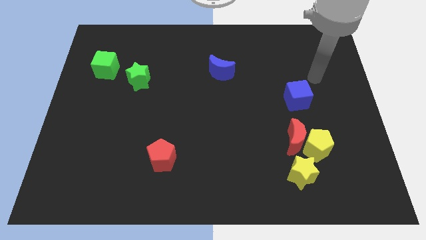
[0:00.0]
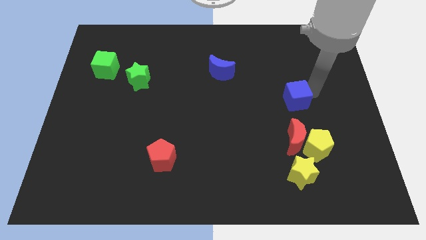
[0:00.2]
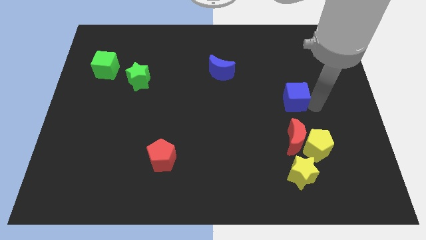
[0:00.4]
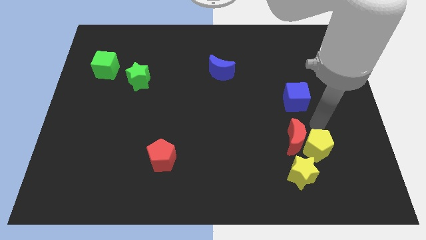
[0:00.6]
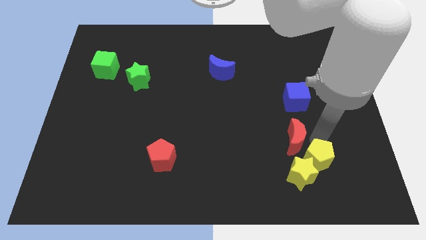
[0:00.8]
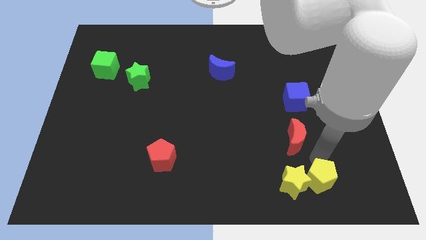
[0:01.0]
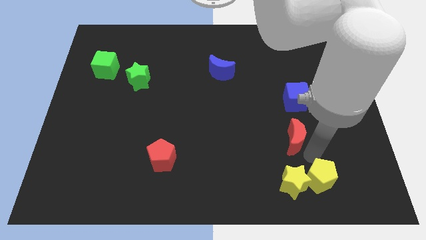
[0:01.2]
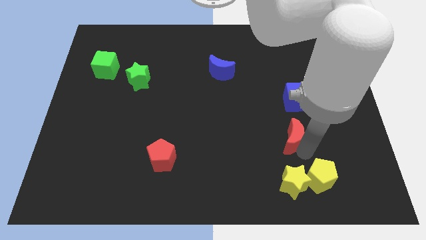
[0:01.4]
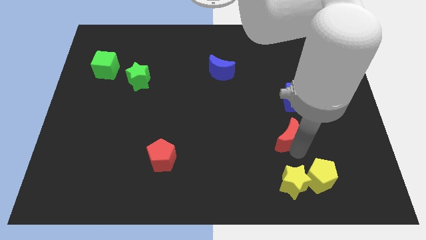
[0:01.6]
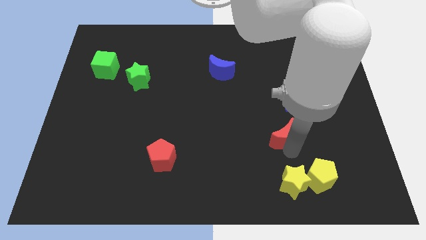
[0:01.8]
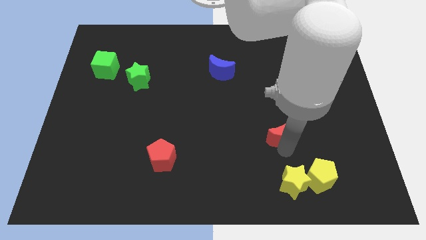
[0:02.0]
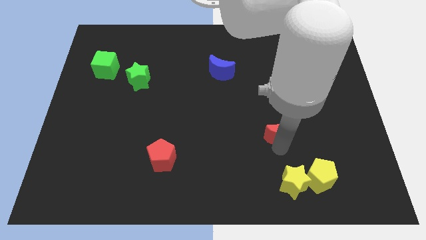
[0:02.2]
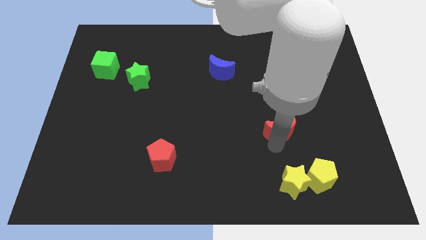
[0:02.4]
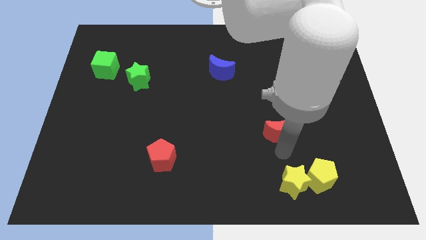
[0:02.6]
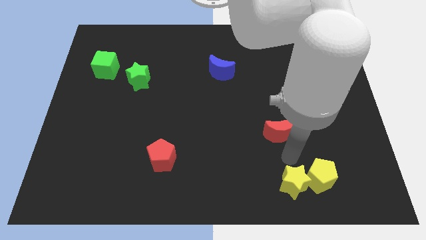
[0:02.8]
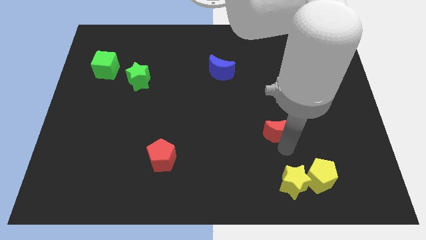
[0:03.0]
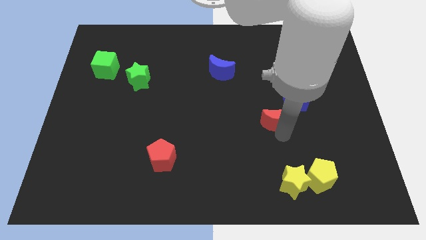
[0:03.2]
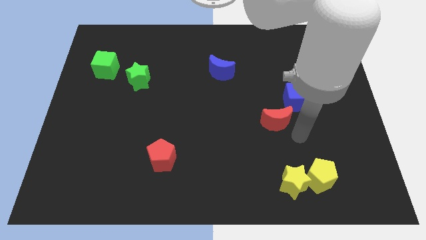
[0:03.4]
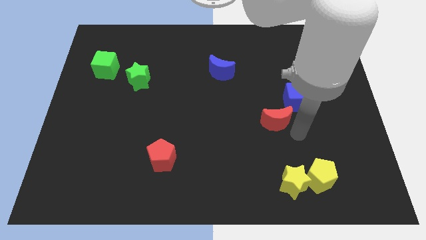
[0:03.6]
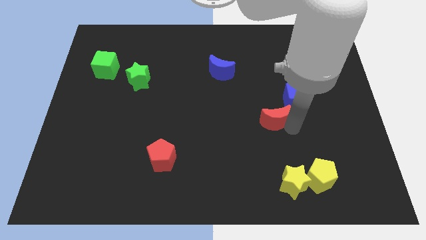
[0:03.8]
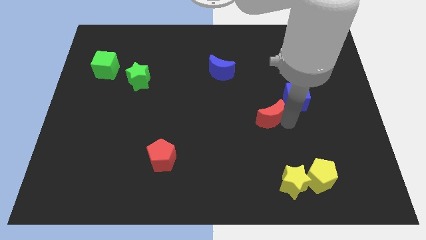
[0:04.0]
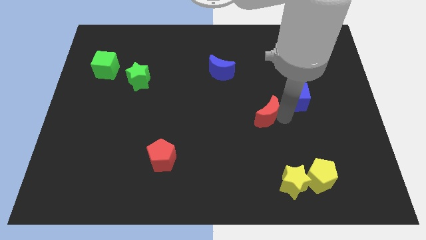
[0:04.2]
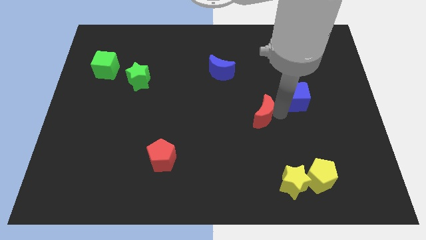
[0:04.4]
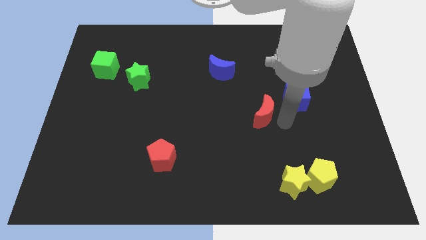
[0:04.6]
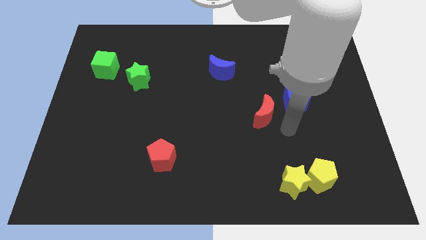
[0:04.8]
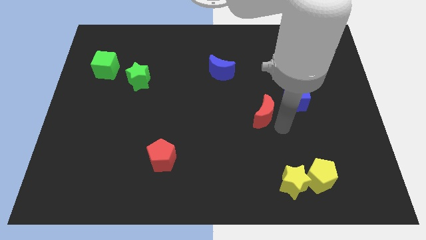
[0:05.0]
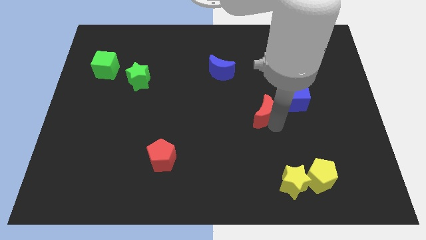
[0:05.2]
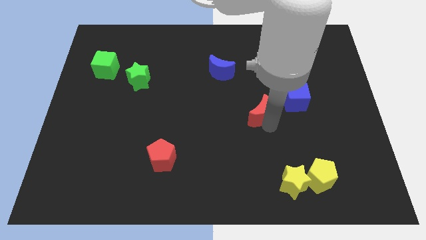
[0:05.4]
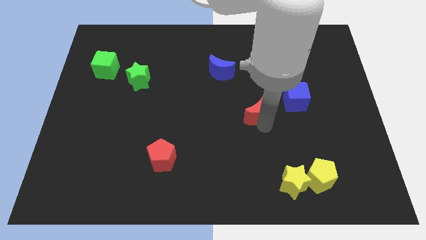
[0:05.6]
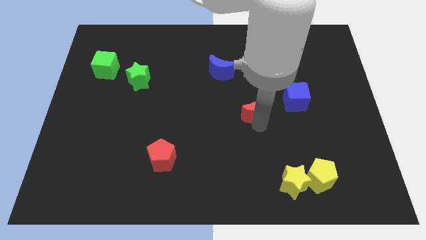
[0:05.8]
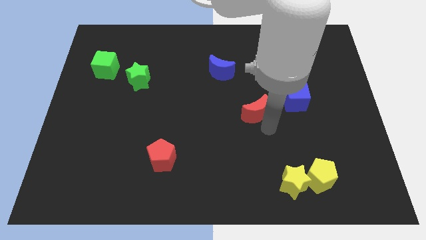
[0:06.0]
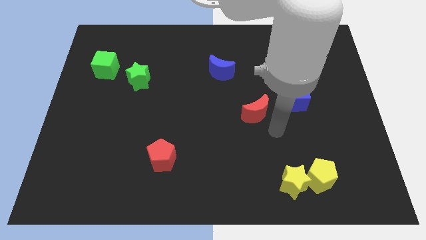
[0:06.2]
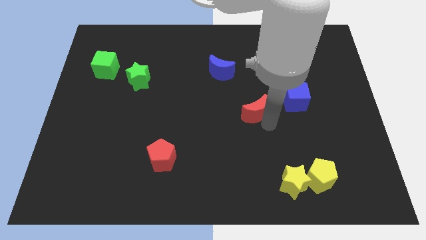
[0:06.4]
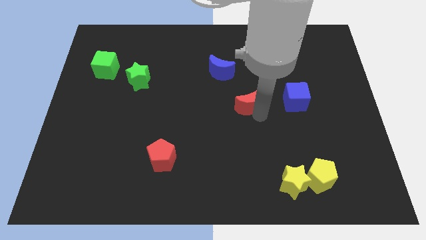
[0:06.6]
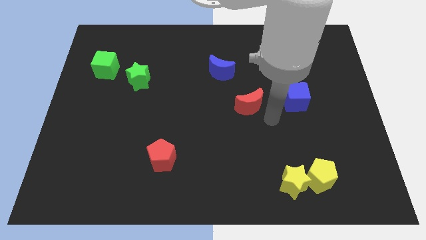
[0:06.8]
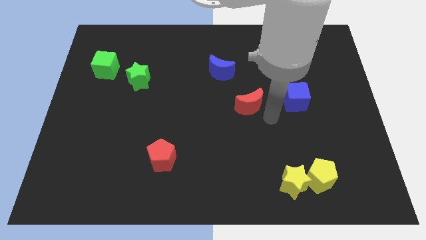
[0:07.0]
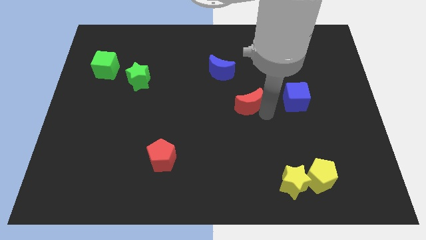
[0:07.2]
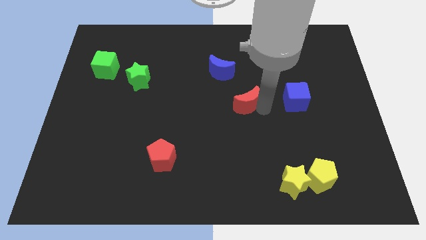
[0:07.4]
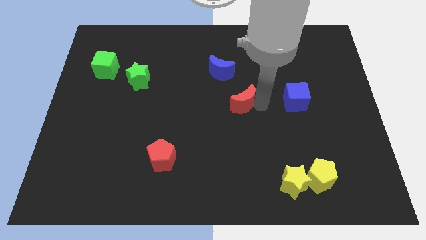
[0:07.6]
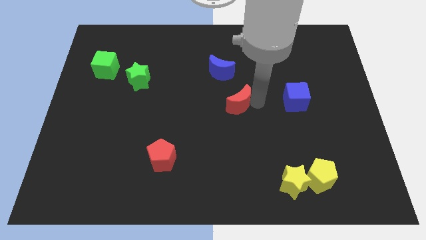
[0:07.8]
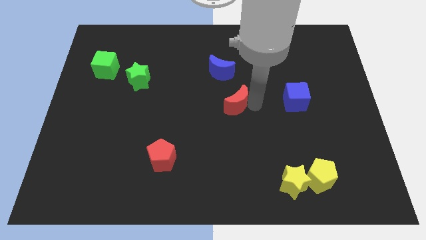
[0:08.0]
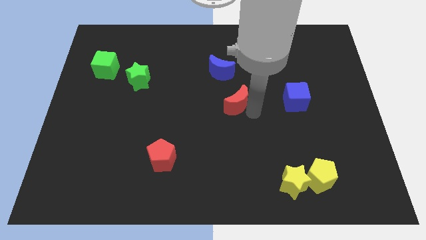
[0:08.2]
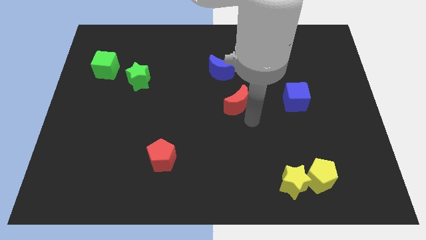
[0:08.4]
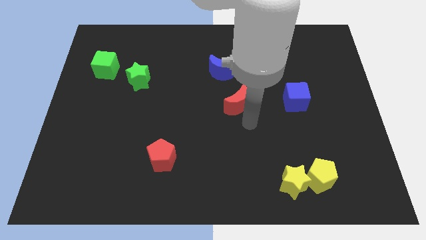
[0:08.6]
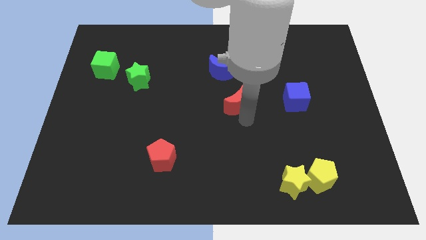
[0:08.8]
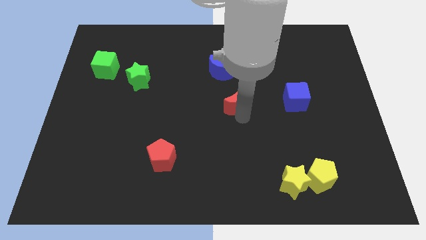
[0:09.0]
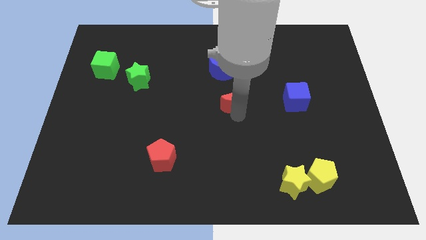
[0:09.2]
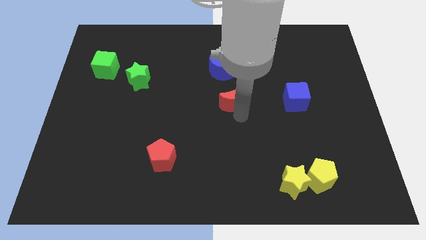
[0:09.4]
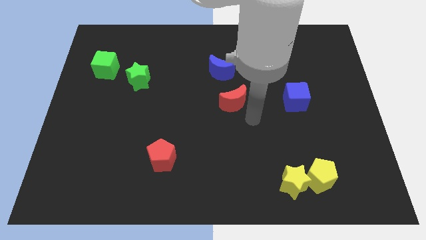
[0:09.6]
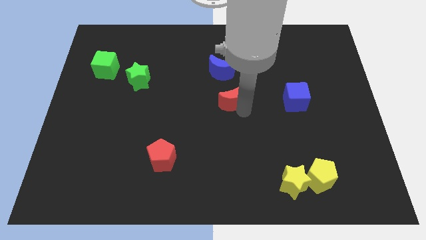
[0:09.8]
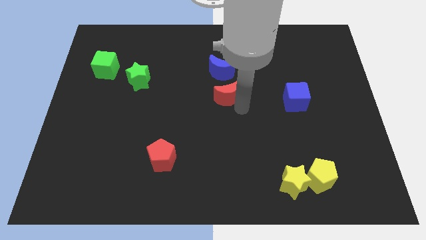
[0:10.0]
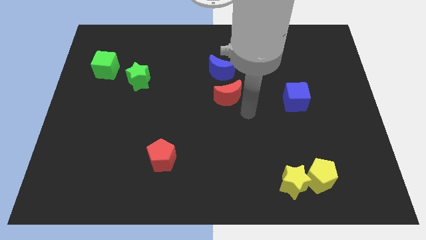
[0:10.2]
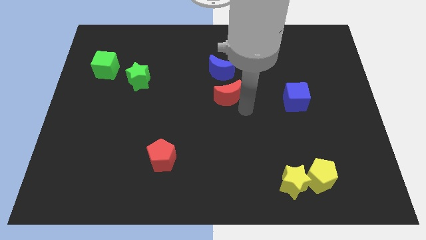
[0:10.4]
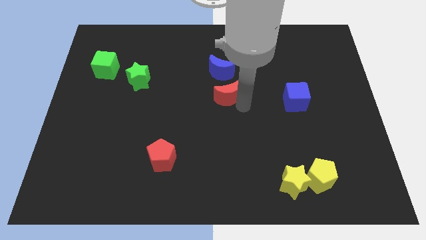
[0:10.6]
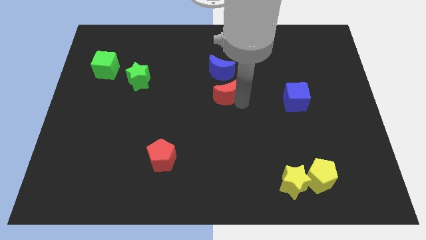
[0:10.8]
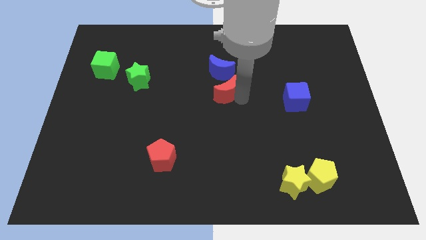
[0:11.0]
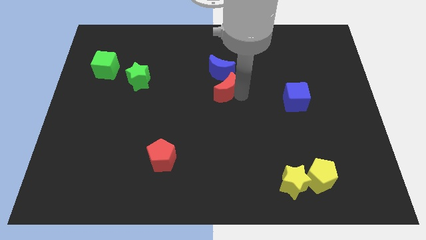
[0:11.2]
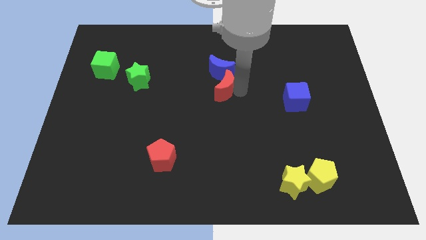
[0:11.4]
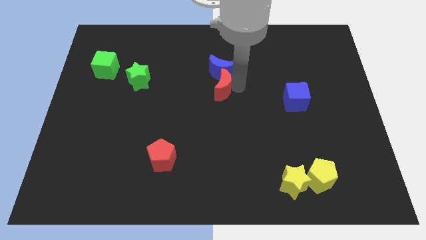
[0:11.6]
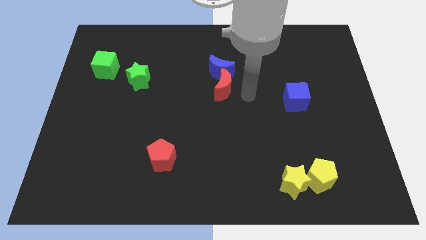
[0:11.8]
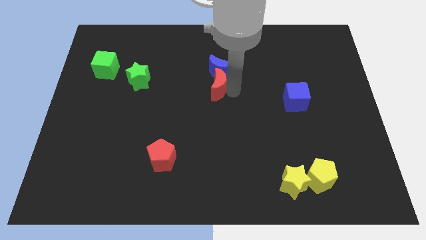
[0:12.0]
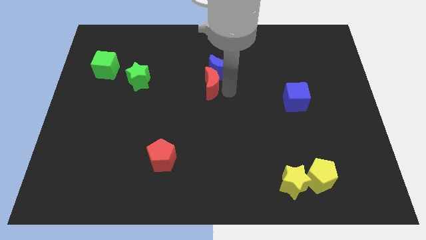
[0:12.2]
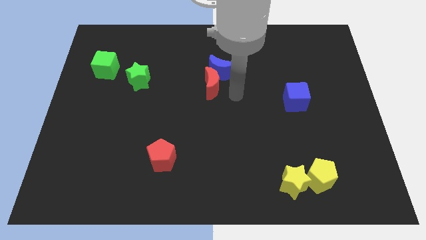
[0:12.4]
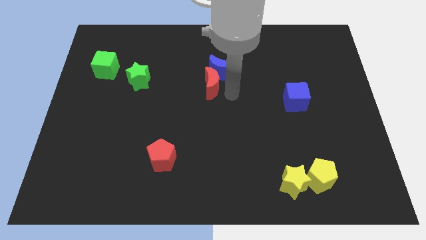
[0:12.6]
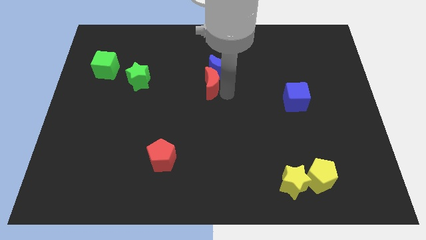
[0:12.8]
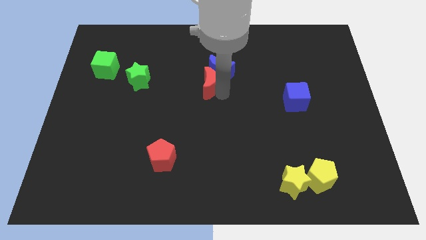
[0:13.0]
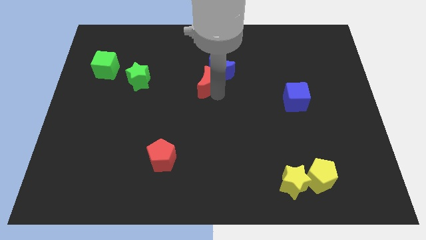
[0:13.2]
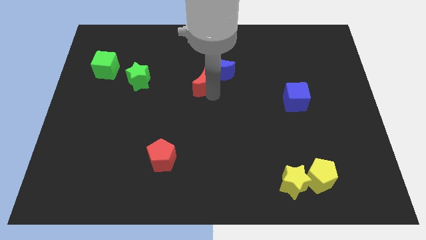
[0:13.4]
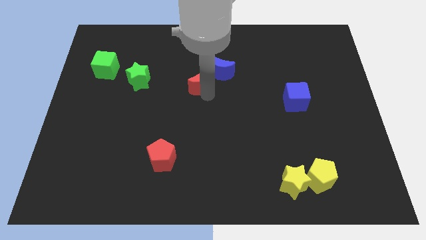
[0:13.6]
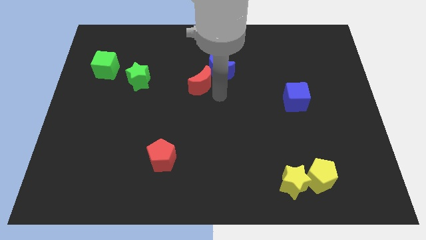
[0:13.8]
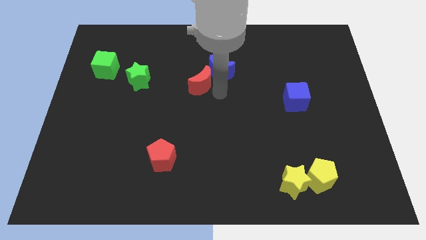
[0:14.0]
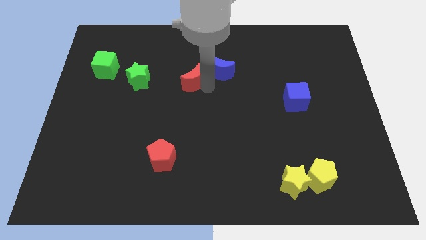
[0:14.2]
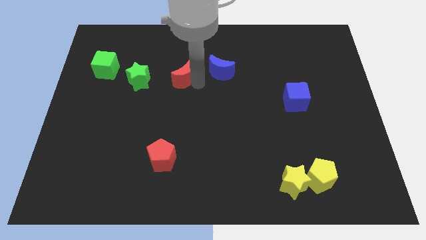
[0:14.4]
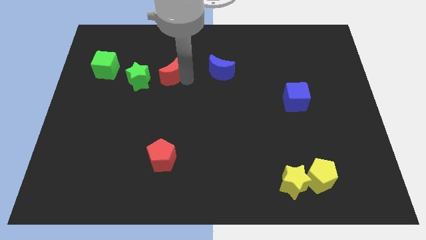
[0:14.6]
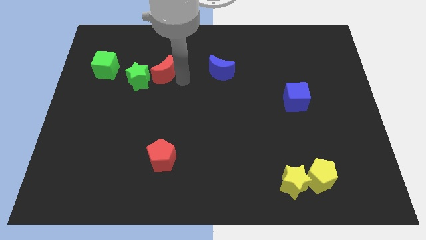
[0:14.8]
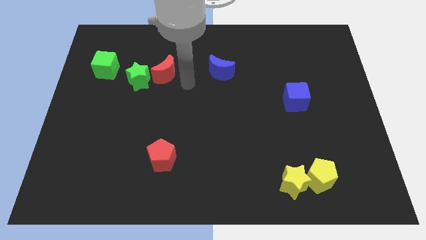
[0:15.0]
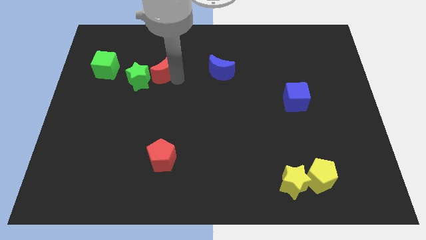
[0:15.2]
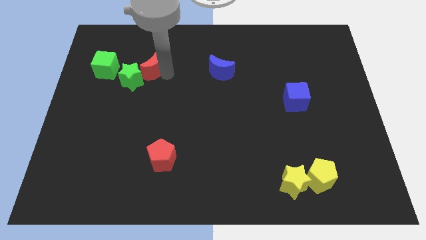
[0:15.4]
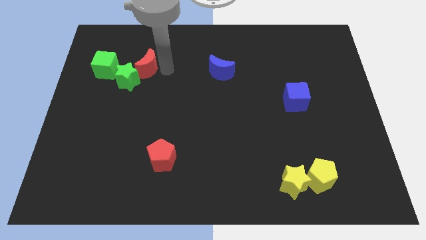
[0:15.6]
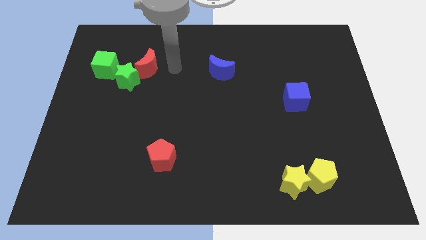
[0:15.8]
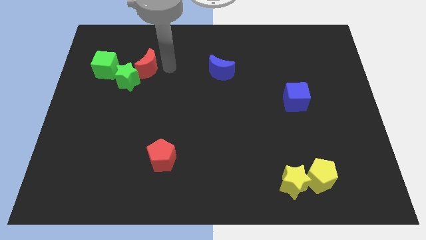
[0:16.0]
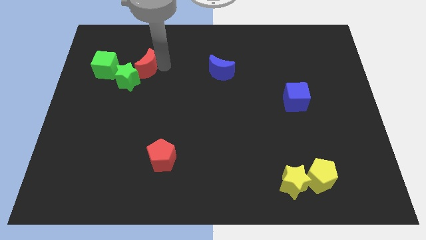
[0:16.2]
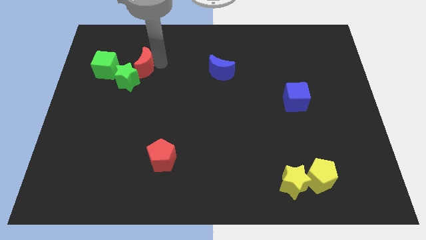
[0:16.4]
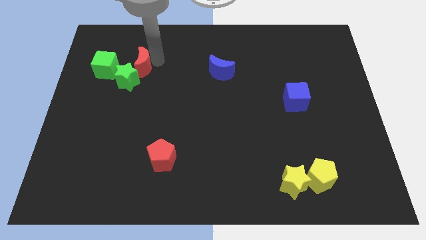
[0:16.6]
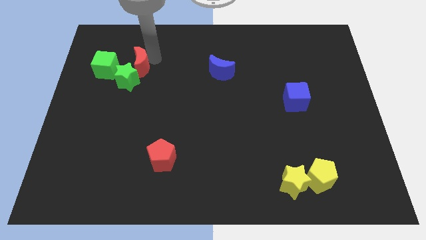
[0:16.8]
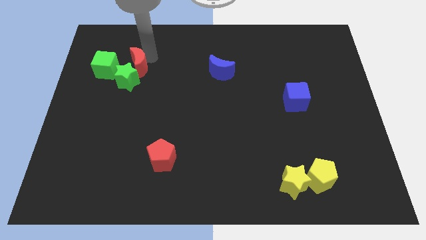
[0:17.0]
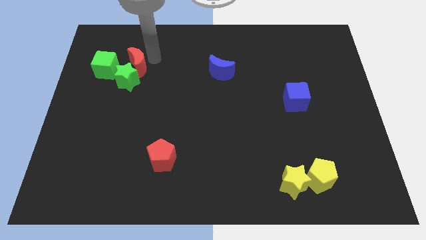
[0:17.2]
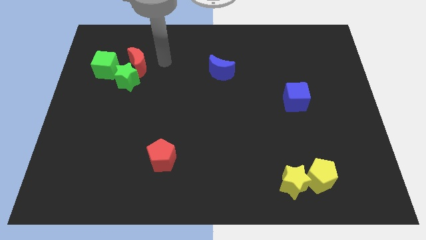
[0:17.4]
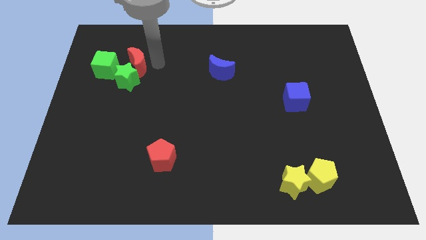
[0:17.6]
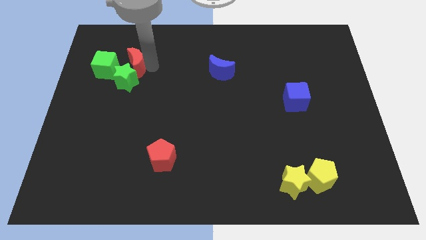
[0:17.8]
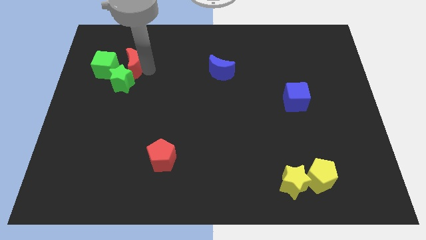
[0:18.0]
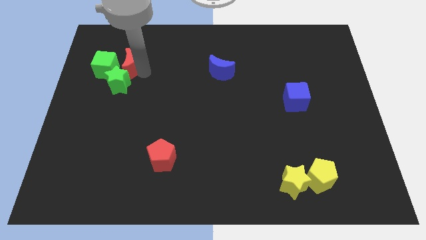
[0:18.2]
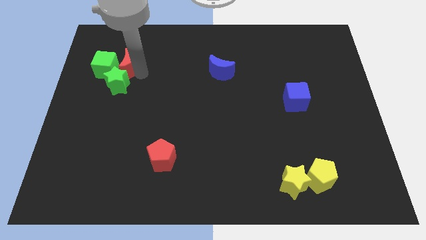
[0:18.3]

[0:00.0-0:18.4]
put the red moon close to the green cube
